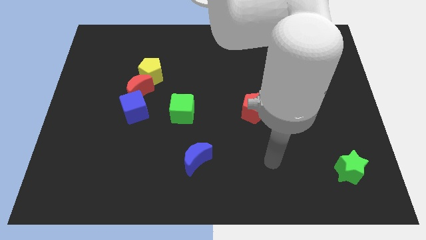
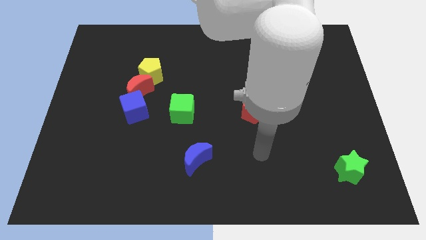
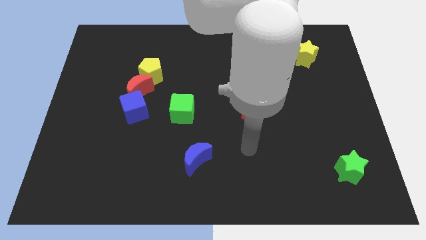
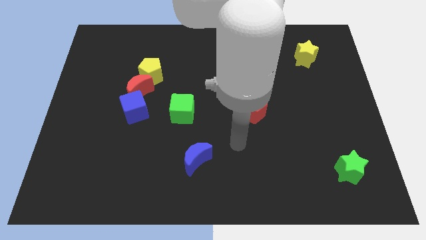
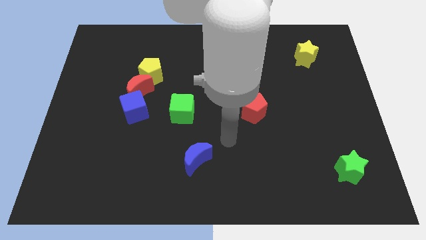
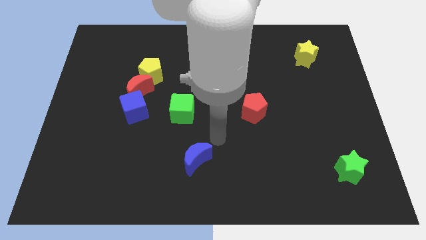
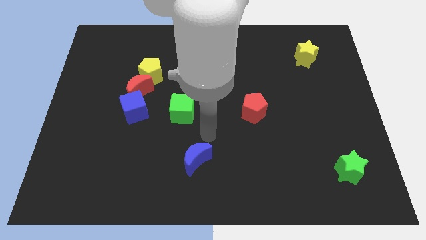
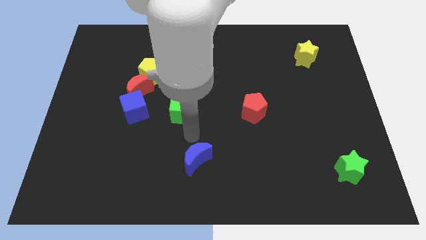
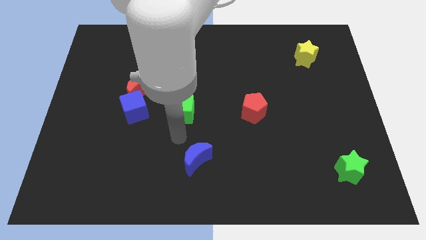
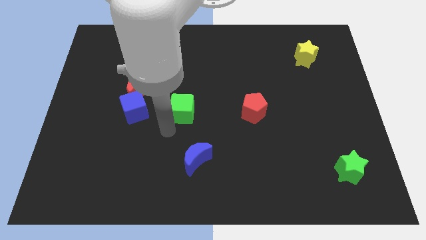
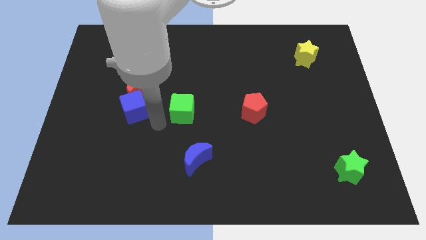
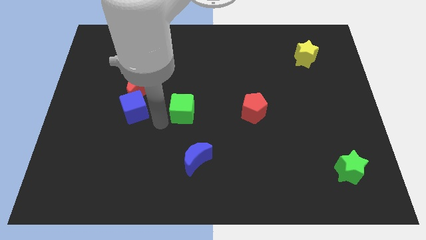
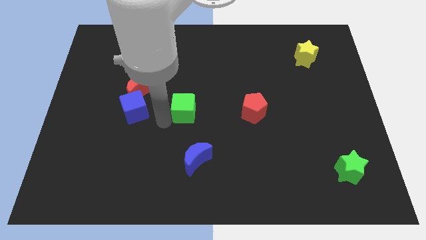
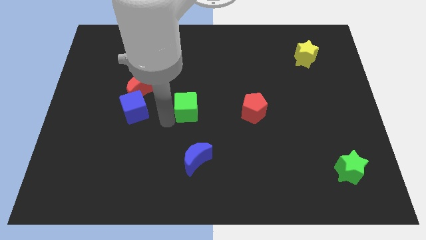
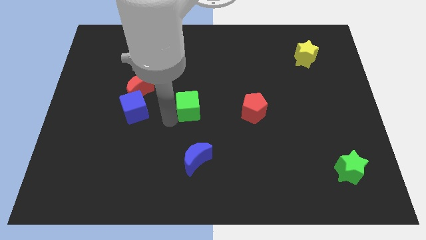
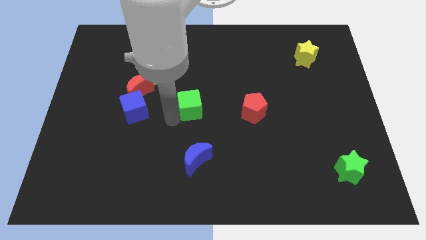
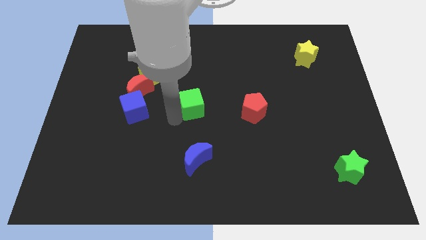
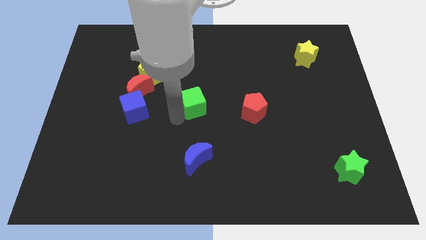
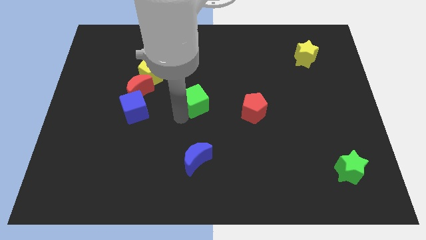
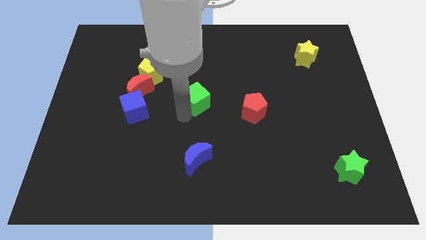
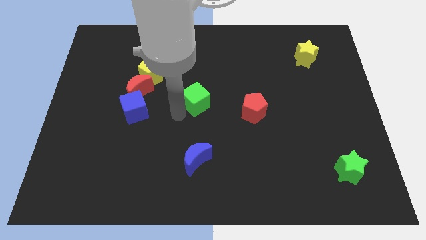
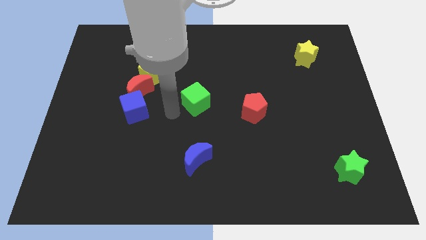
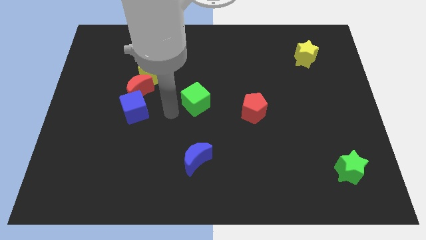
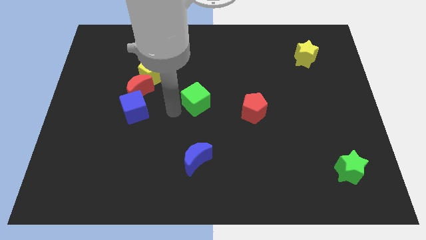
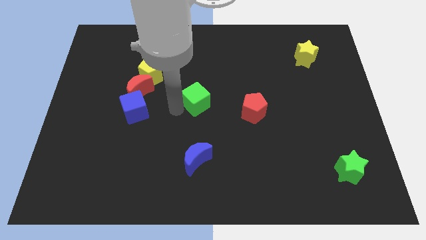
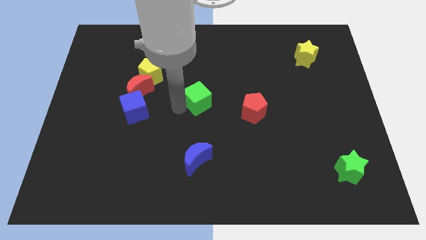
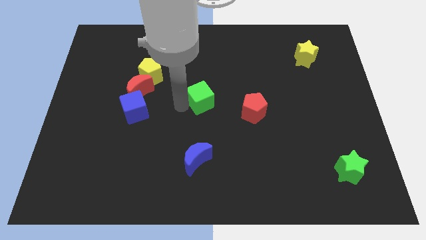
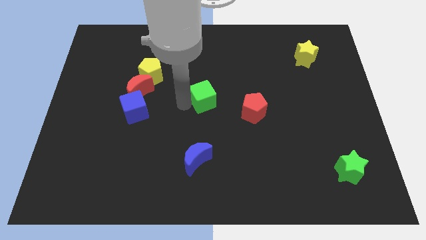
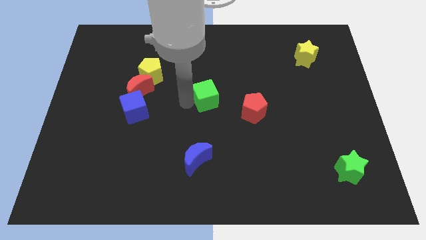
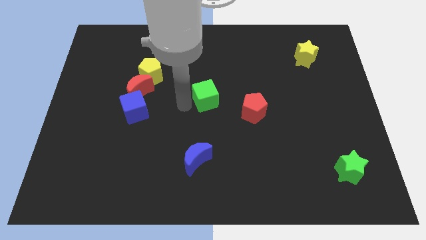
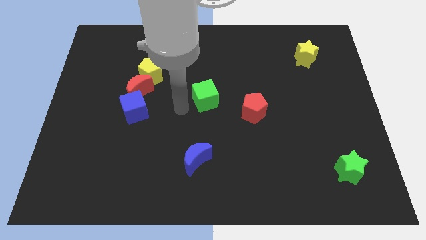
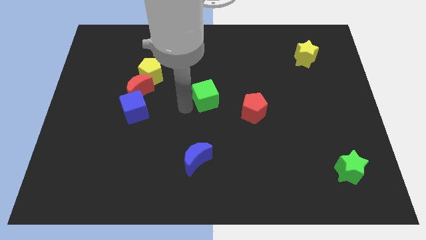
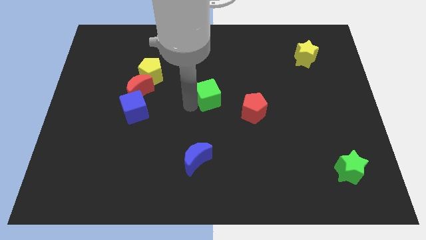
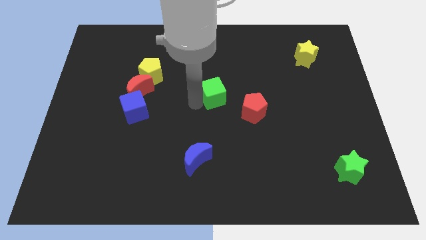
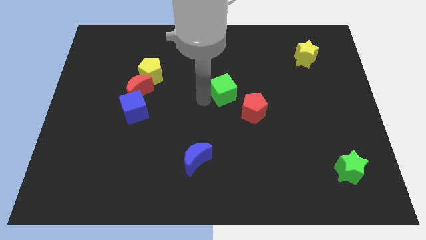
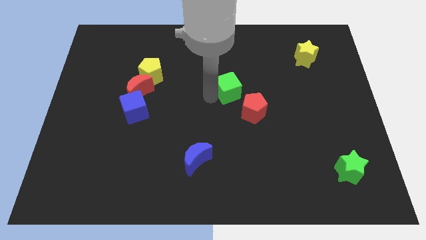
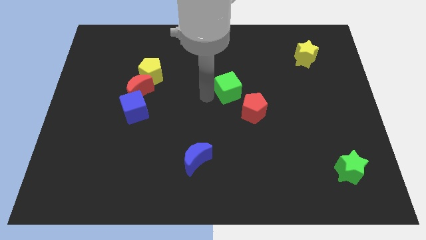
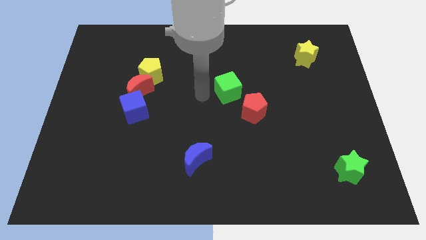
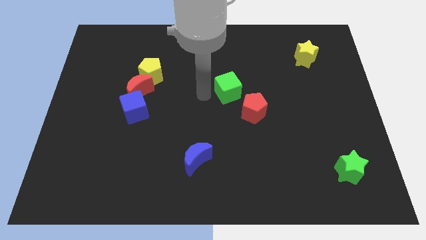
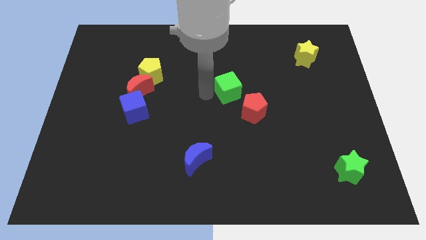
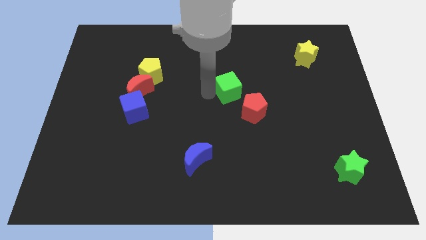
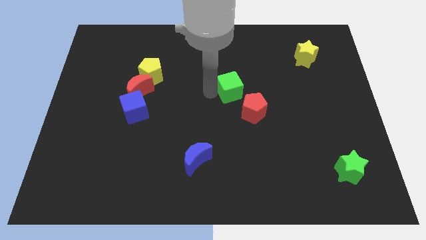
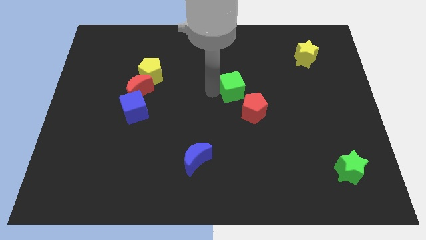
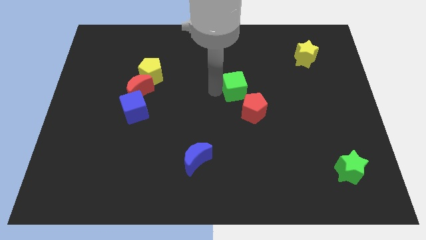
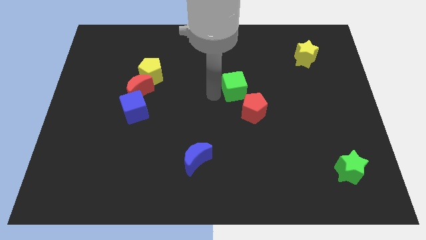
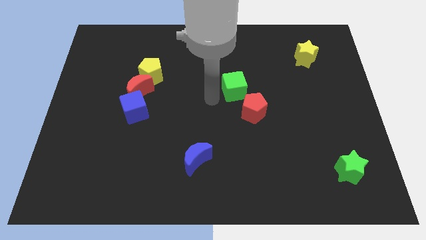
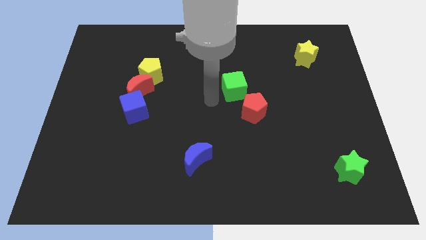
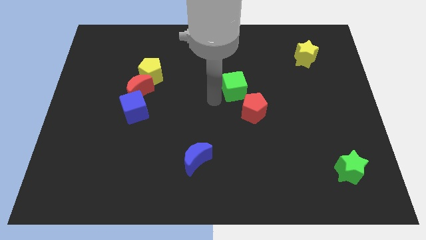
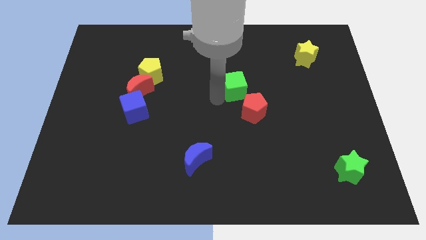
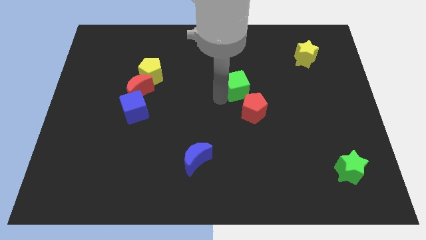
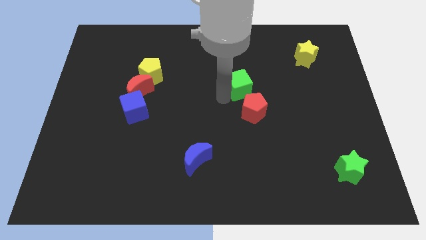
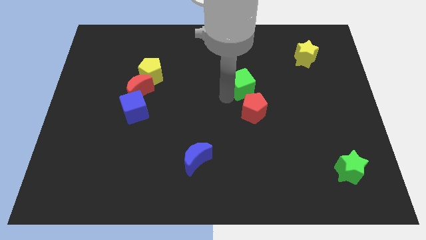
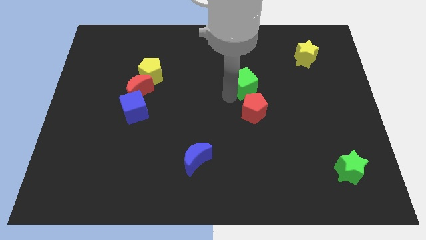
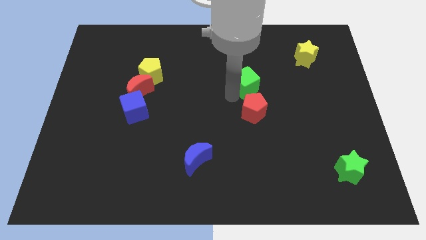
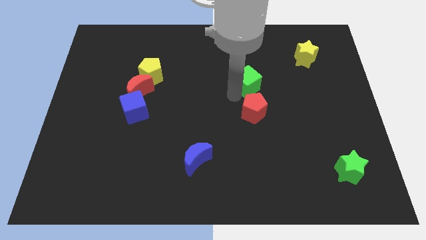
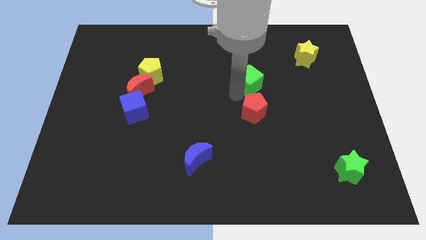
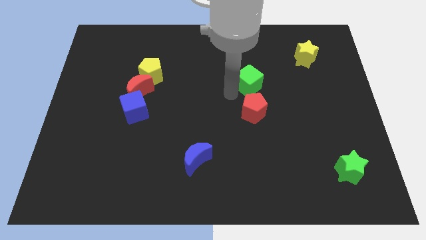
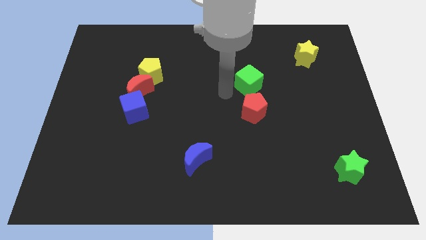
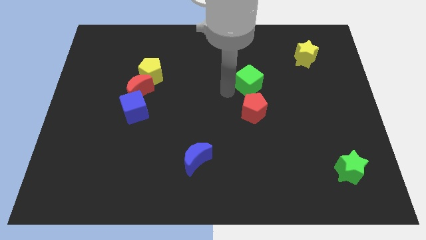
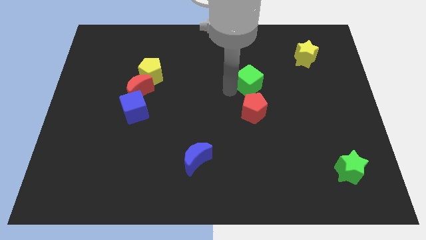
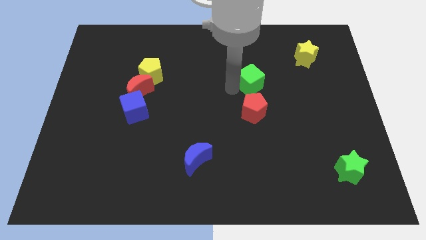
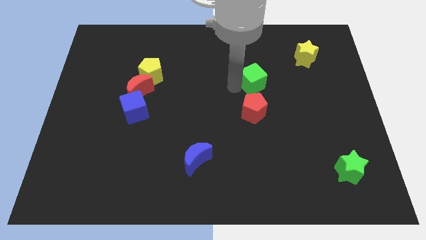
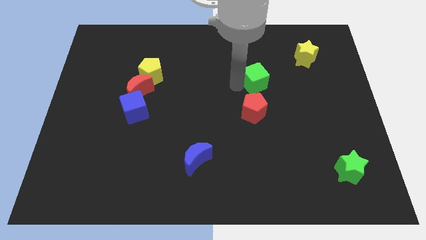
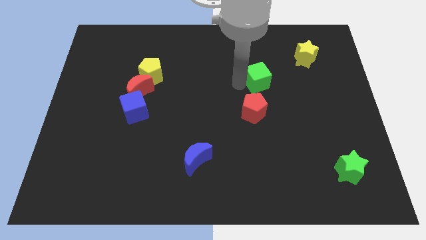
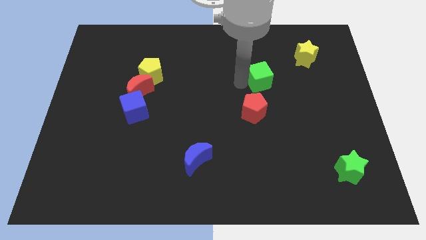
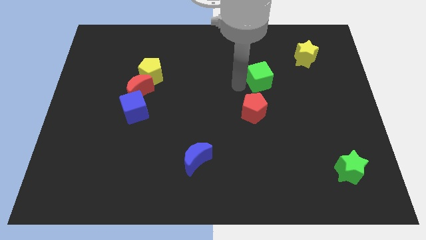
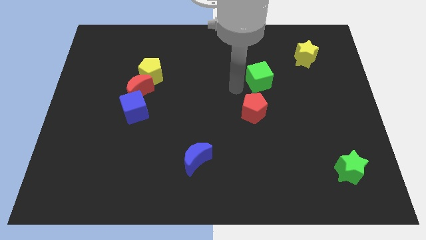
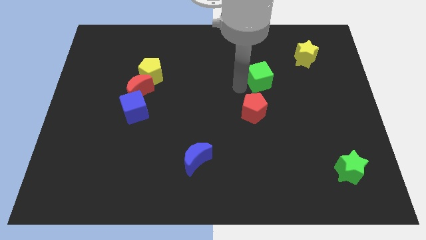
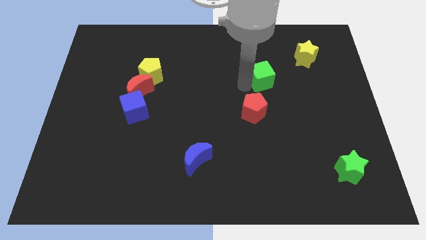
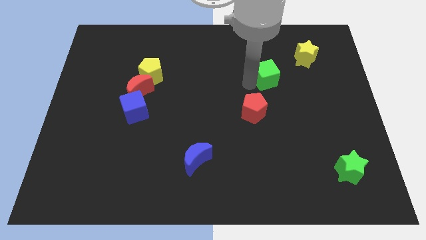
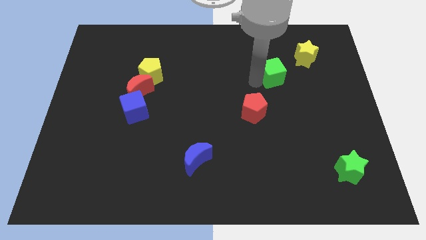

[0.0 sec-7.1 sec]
slide the green cube to the bottom left side of the yellow star

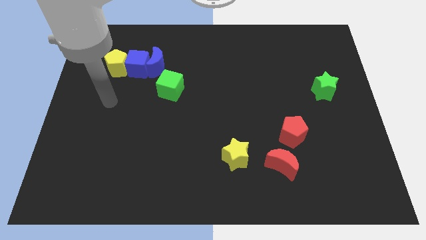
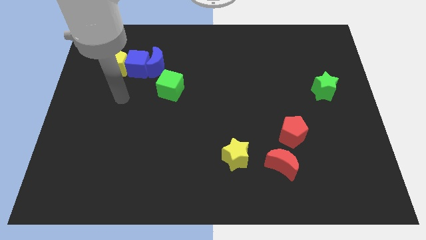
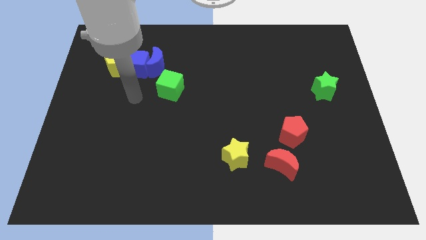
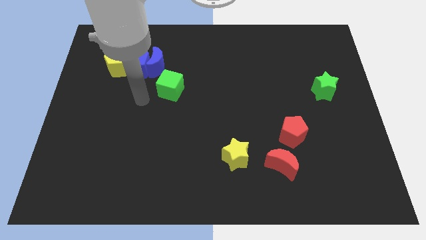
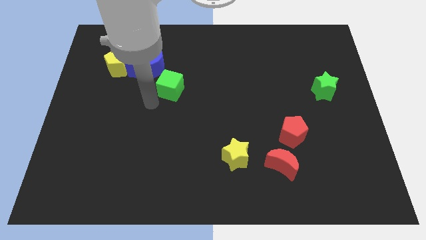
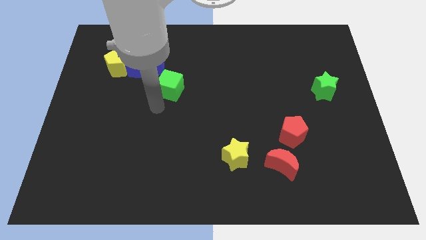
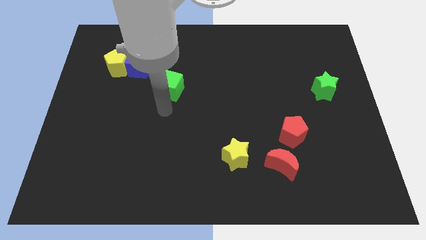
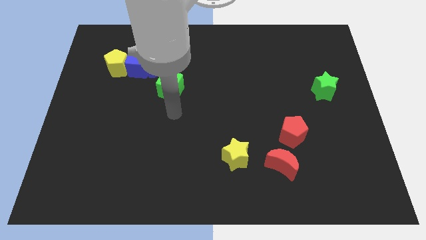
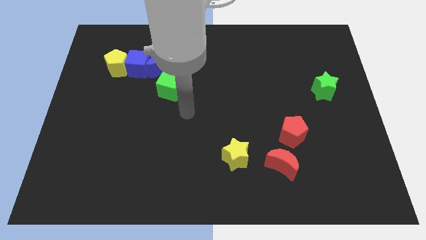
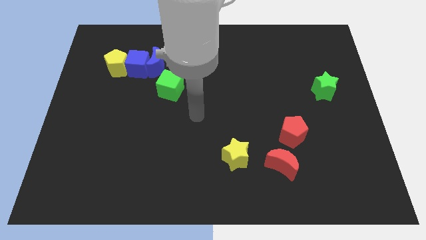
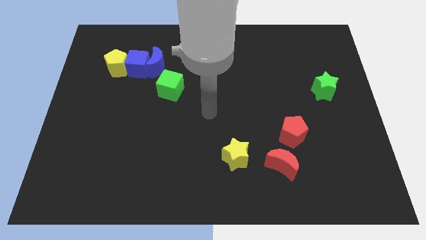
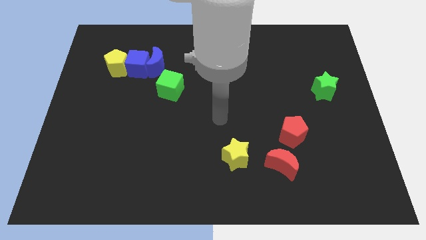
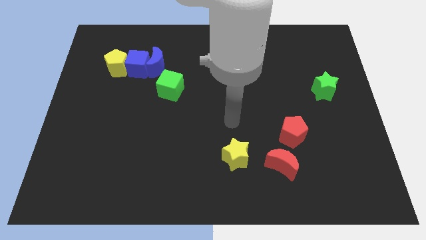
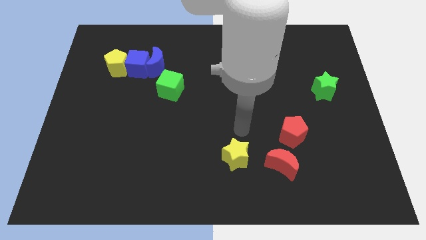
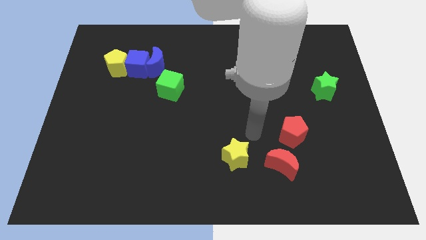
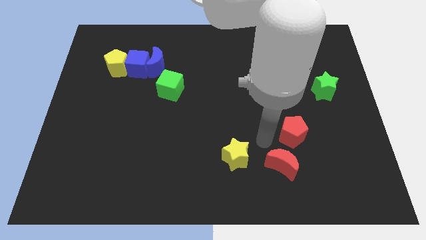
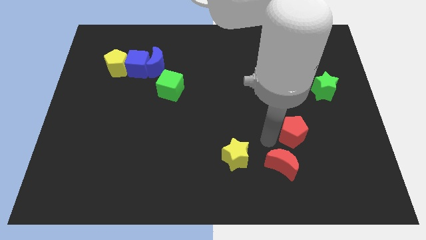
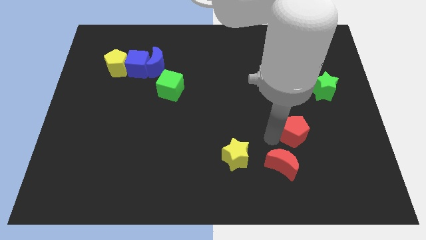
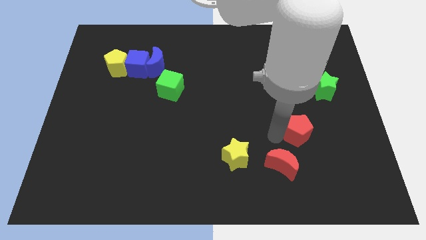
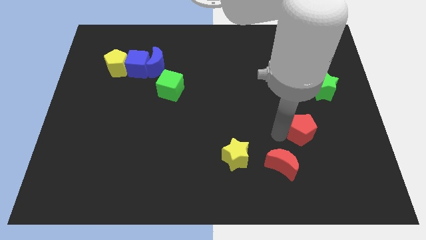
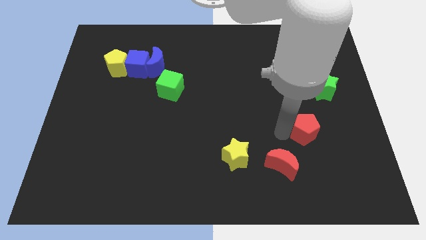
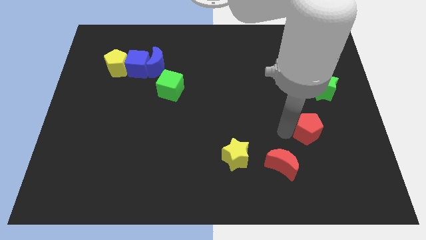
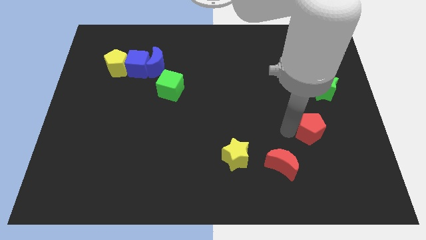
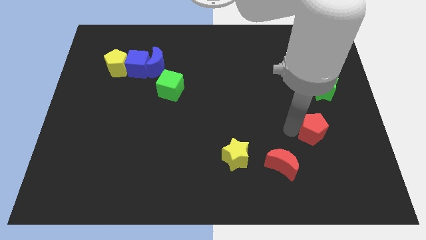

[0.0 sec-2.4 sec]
push the red pentagon to the bottom of the green star
